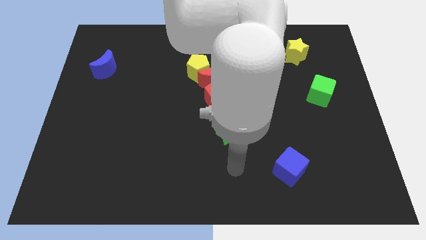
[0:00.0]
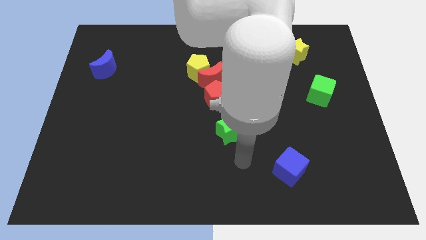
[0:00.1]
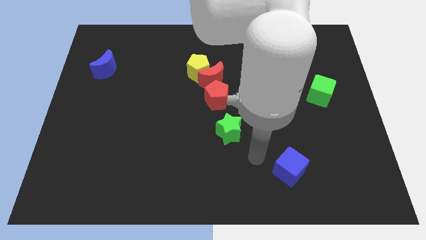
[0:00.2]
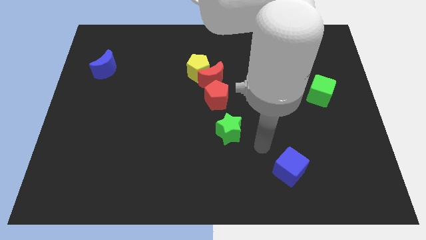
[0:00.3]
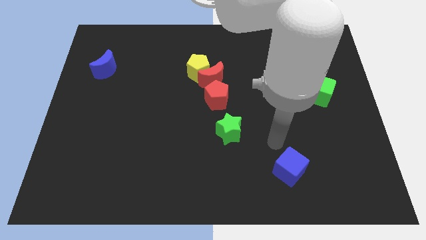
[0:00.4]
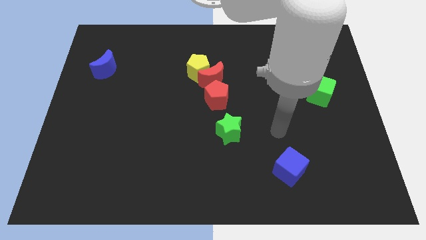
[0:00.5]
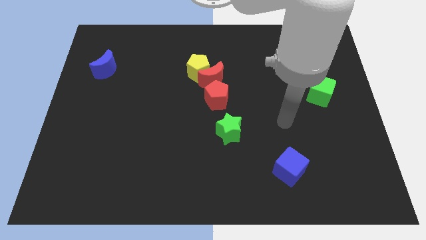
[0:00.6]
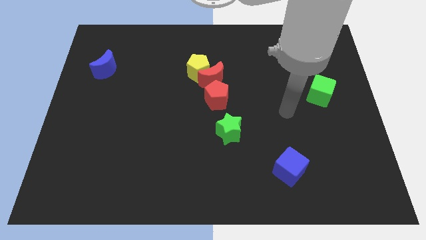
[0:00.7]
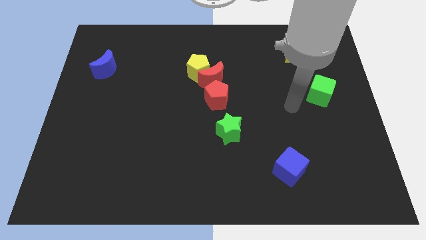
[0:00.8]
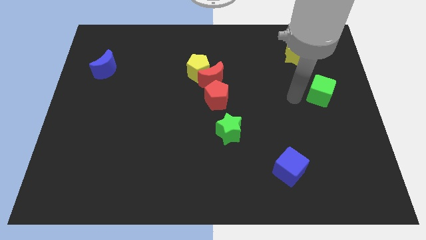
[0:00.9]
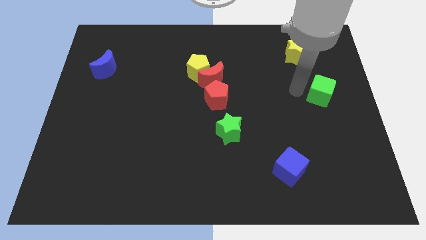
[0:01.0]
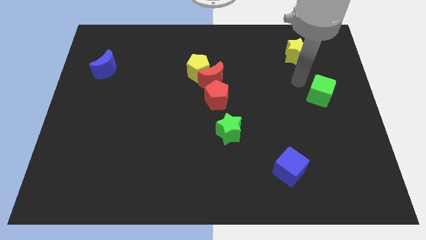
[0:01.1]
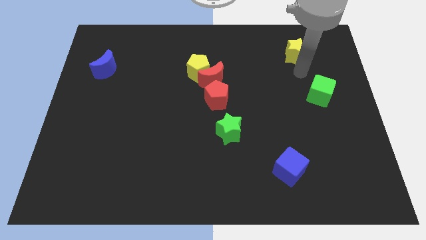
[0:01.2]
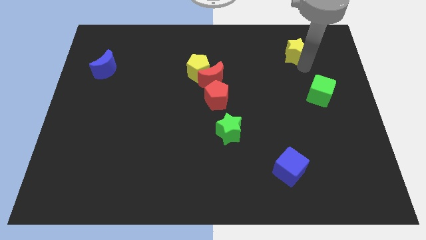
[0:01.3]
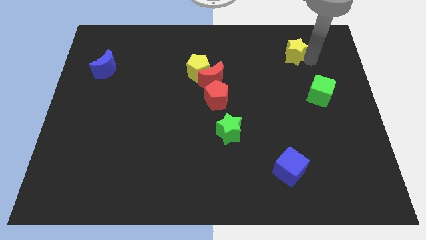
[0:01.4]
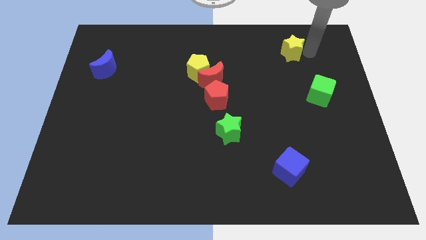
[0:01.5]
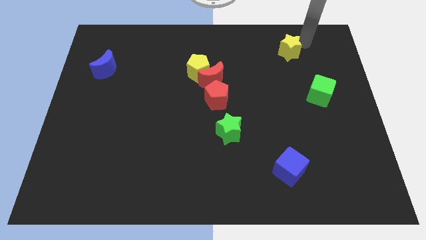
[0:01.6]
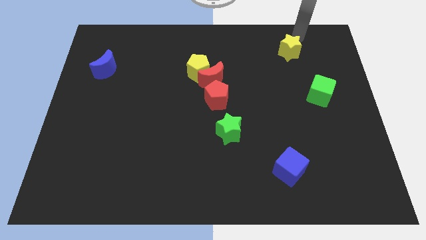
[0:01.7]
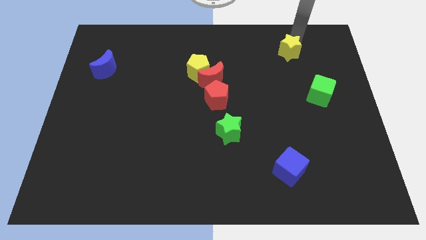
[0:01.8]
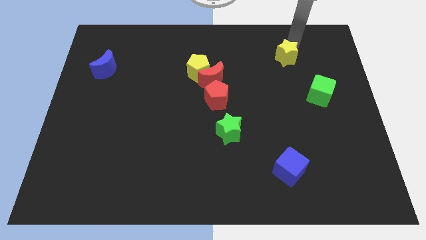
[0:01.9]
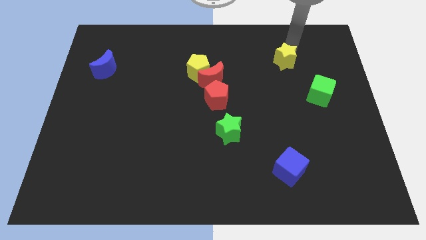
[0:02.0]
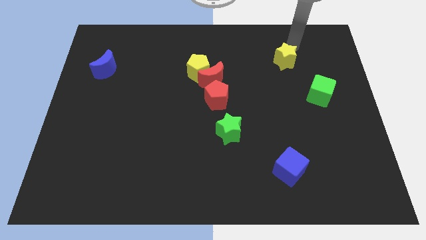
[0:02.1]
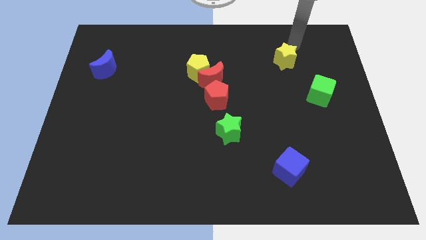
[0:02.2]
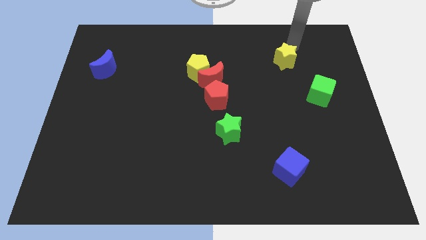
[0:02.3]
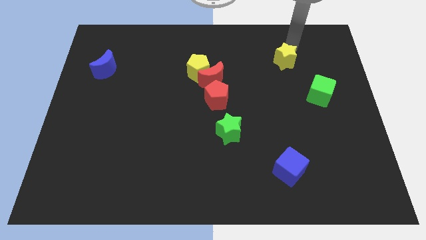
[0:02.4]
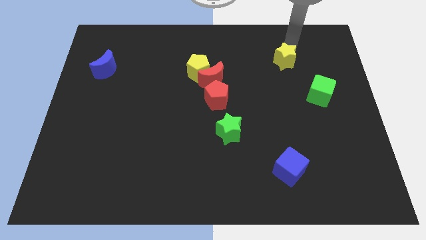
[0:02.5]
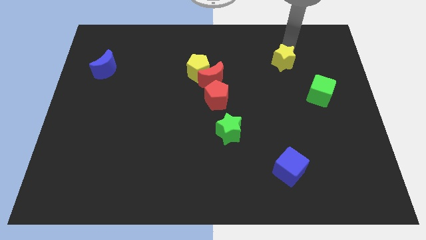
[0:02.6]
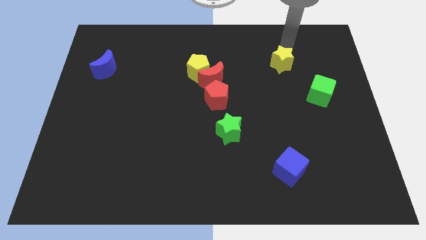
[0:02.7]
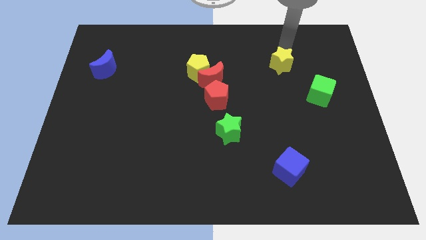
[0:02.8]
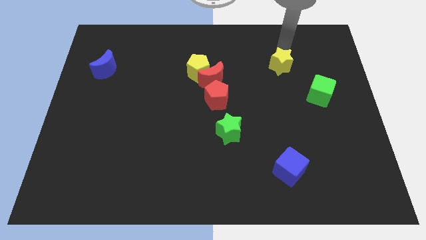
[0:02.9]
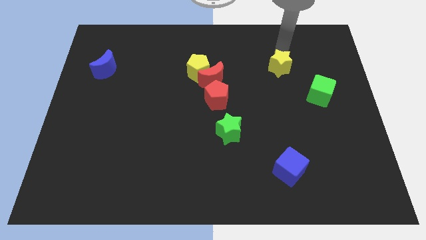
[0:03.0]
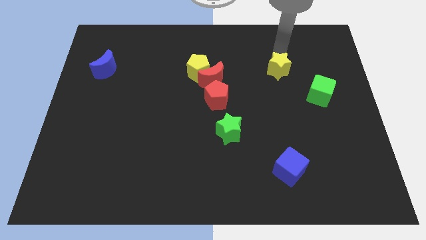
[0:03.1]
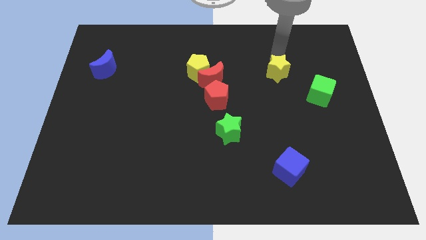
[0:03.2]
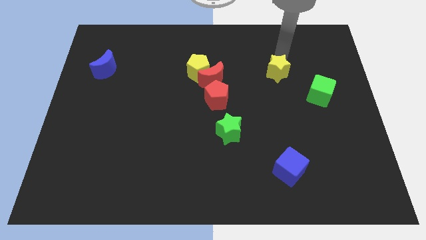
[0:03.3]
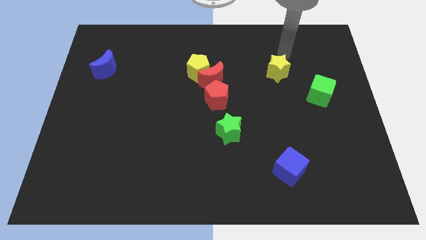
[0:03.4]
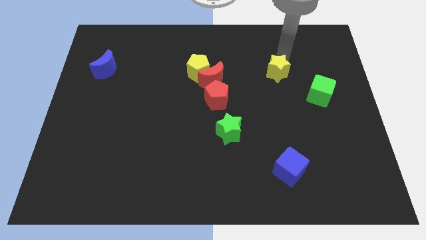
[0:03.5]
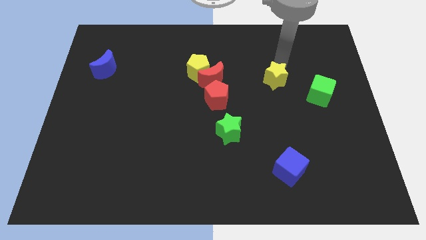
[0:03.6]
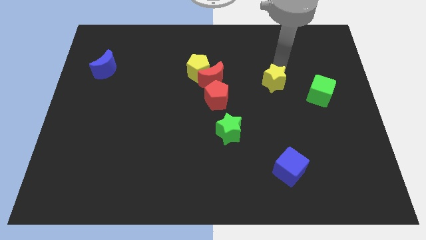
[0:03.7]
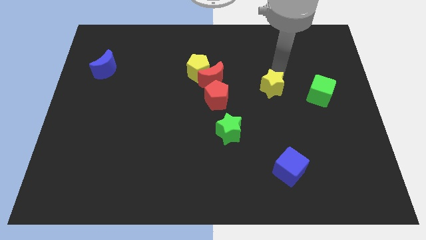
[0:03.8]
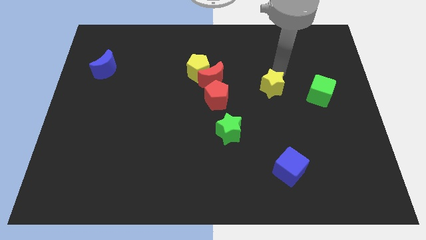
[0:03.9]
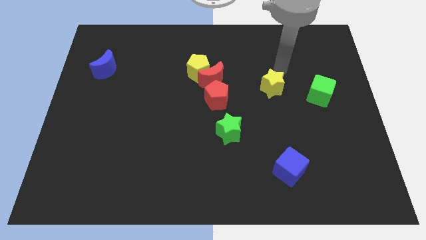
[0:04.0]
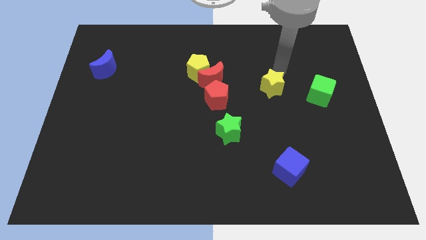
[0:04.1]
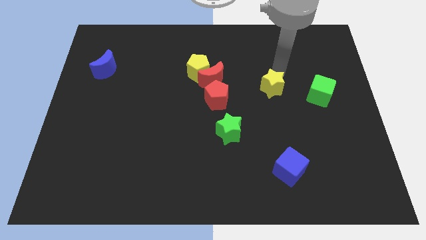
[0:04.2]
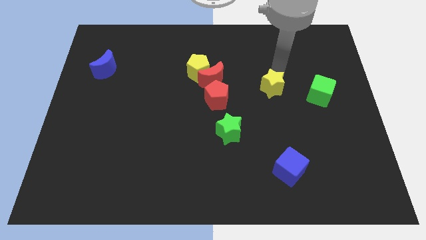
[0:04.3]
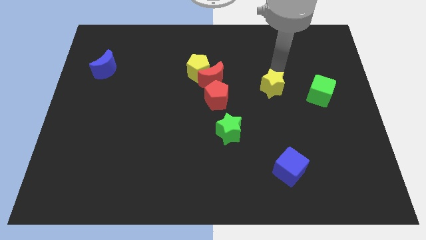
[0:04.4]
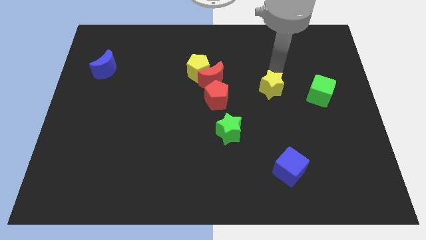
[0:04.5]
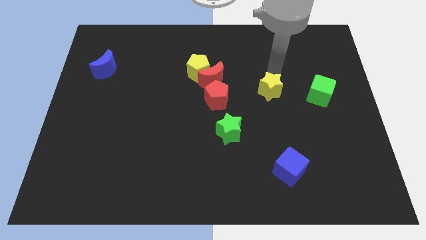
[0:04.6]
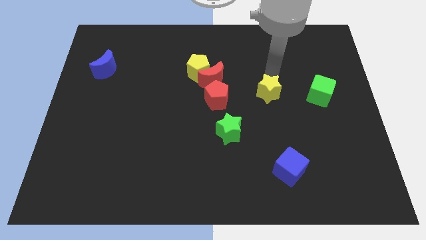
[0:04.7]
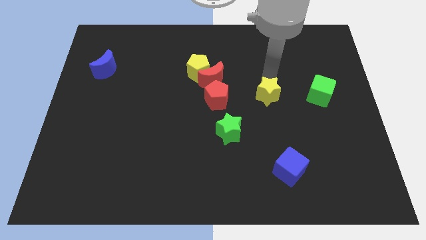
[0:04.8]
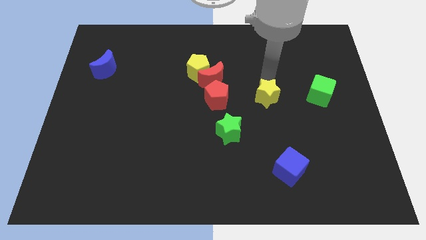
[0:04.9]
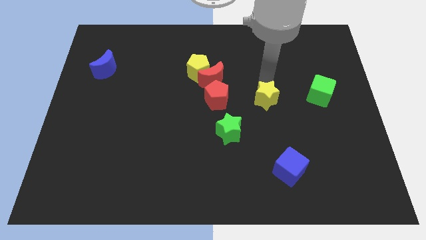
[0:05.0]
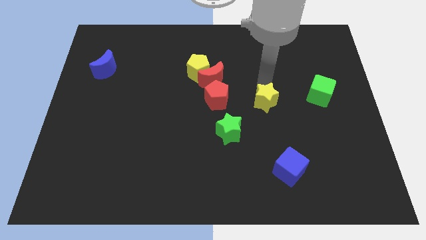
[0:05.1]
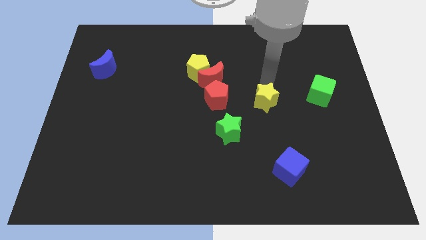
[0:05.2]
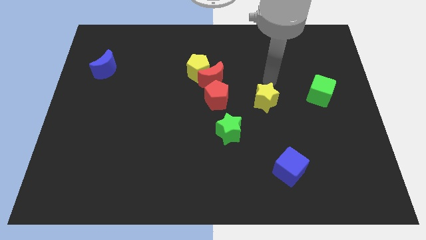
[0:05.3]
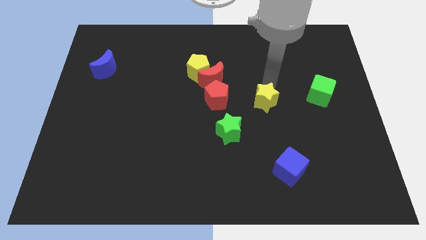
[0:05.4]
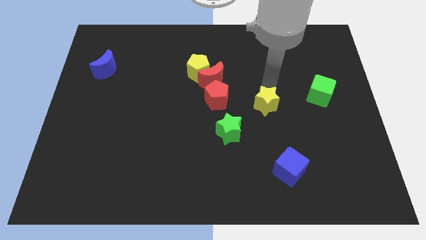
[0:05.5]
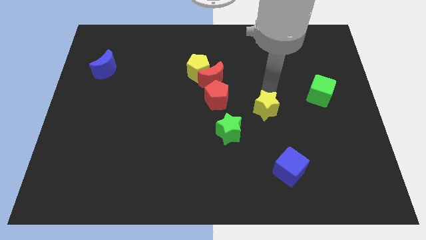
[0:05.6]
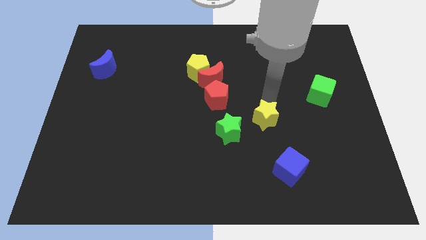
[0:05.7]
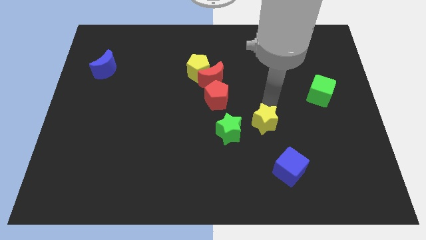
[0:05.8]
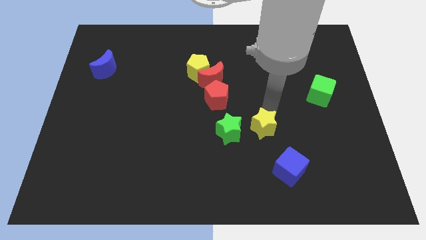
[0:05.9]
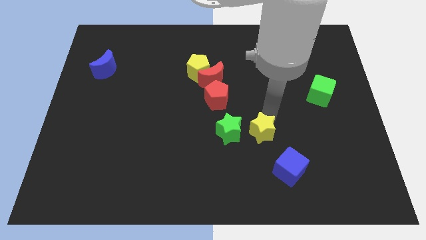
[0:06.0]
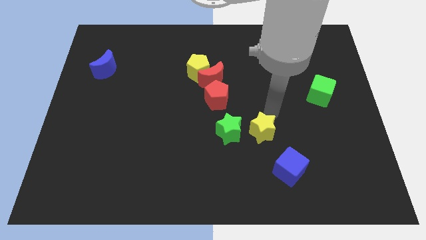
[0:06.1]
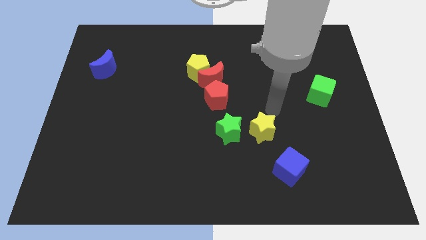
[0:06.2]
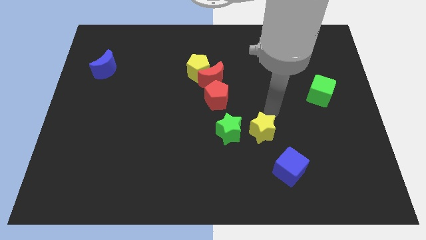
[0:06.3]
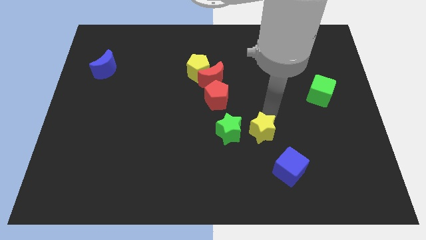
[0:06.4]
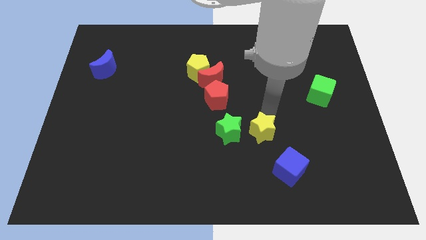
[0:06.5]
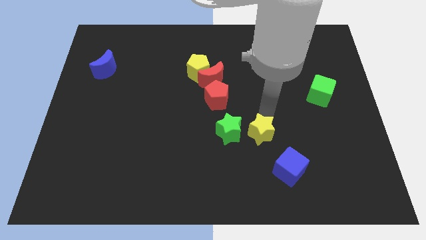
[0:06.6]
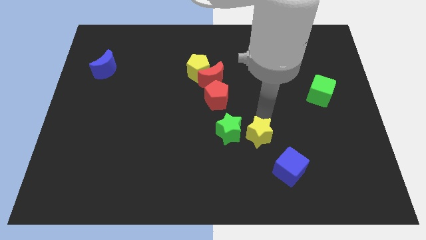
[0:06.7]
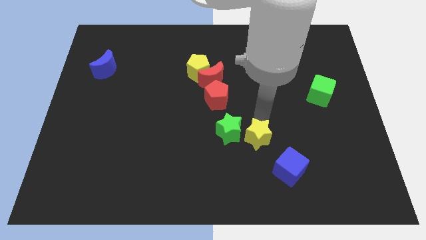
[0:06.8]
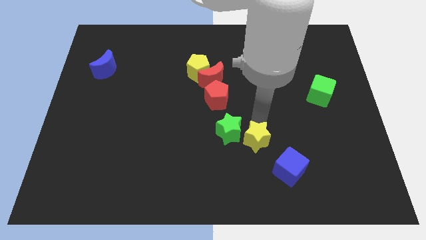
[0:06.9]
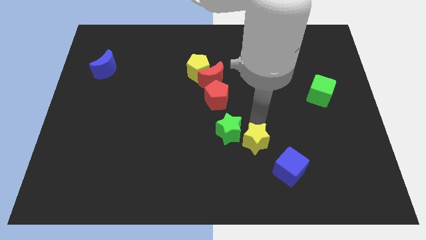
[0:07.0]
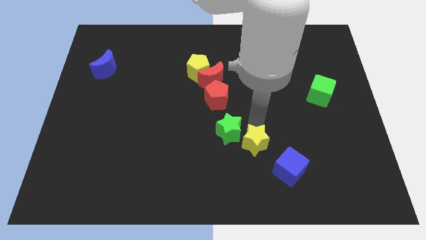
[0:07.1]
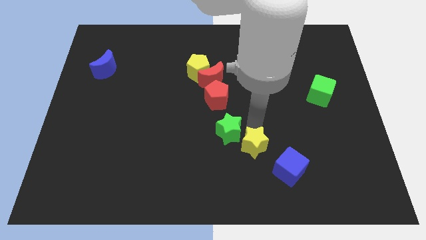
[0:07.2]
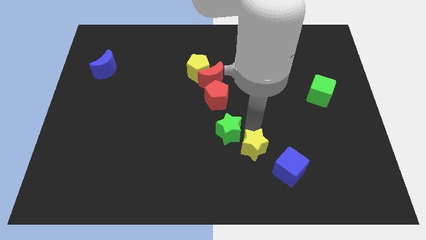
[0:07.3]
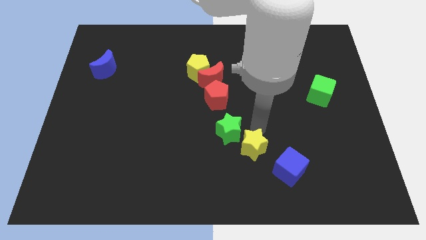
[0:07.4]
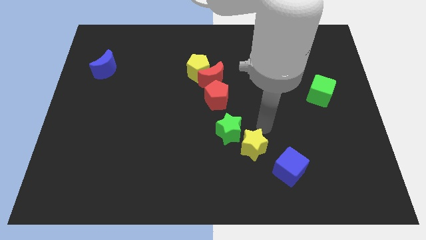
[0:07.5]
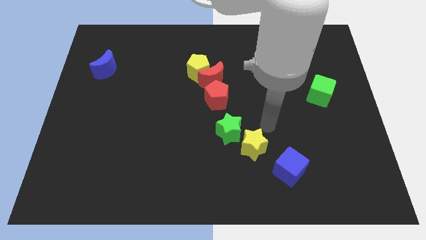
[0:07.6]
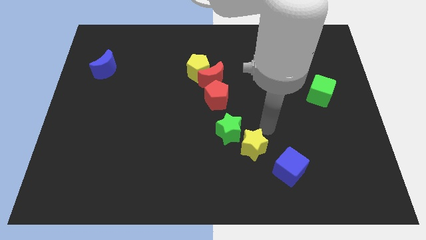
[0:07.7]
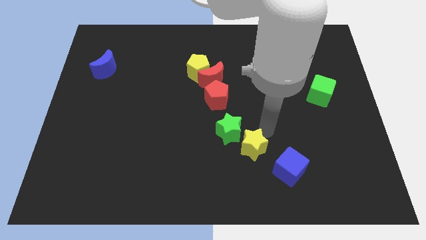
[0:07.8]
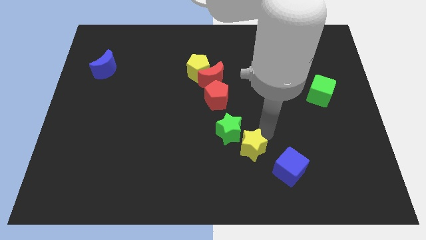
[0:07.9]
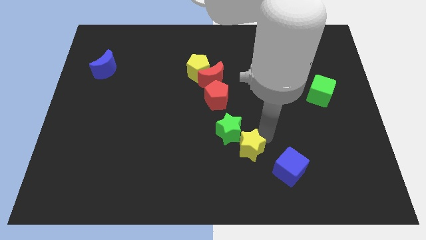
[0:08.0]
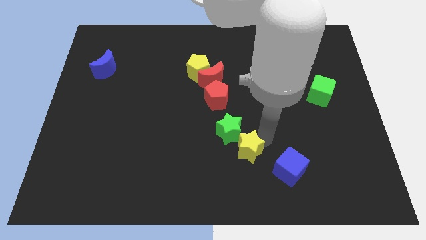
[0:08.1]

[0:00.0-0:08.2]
push the yellow star left of the blue cube
